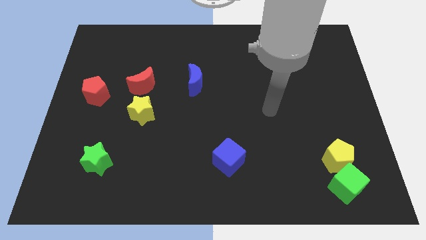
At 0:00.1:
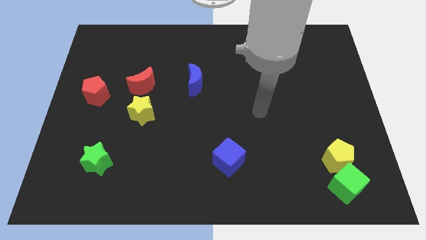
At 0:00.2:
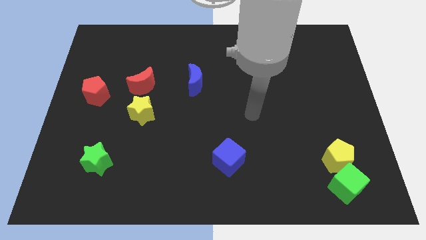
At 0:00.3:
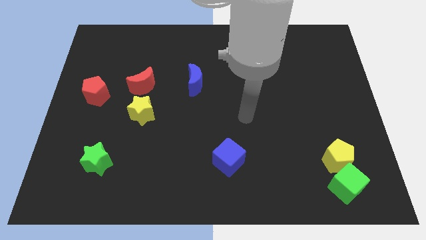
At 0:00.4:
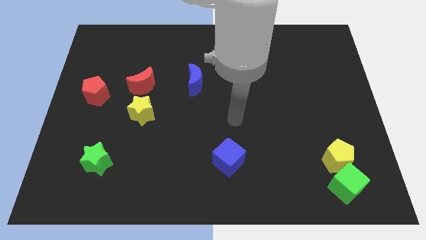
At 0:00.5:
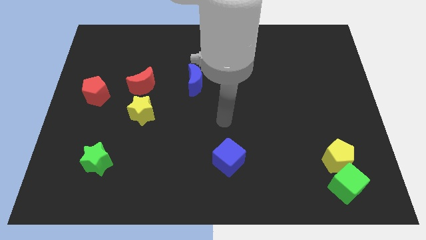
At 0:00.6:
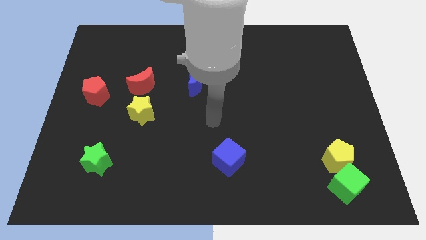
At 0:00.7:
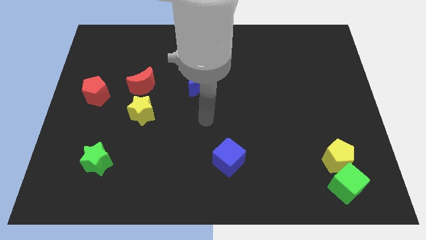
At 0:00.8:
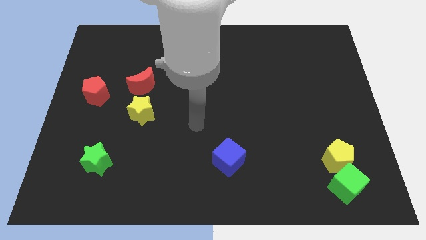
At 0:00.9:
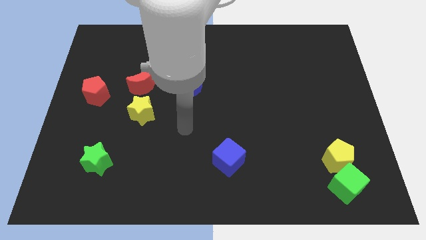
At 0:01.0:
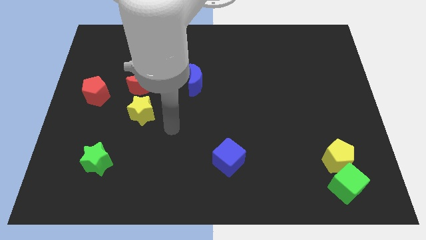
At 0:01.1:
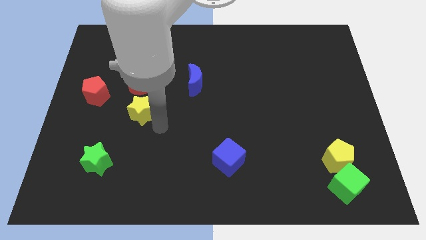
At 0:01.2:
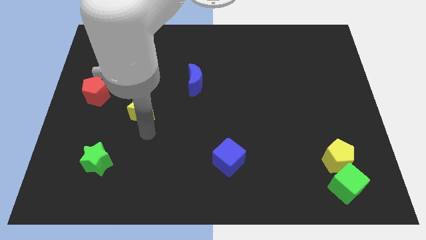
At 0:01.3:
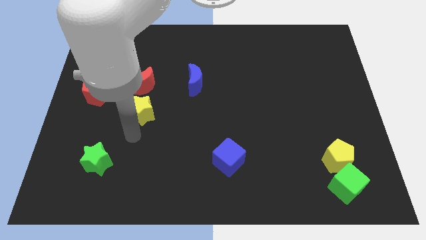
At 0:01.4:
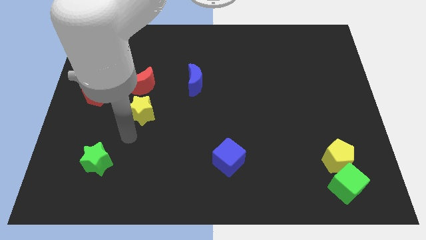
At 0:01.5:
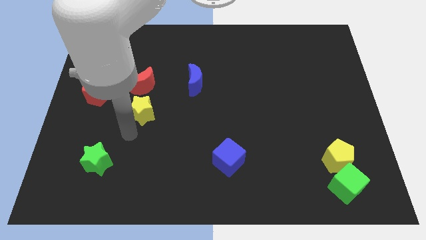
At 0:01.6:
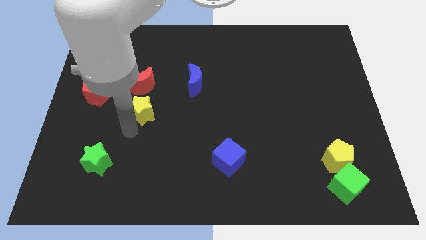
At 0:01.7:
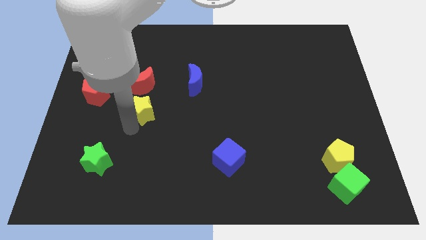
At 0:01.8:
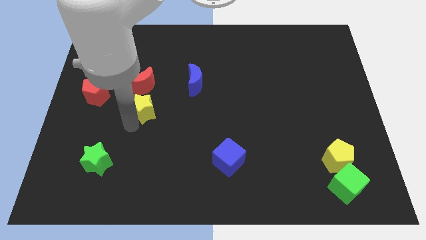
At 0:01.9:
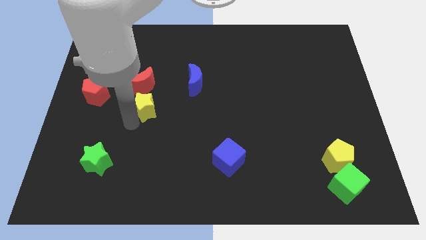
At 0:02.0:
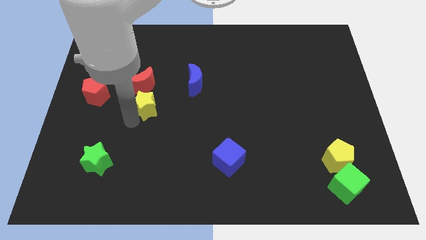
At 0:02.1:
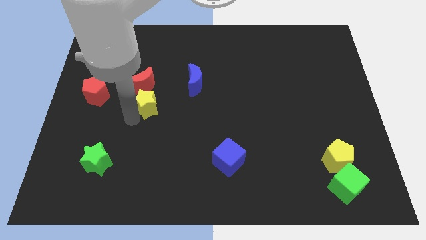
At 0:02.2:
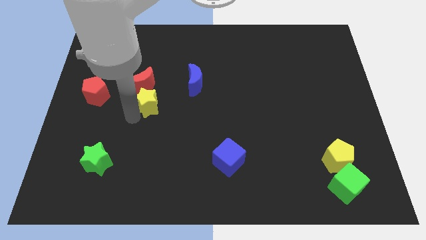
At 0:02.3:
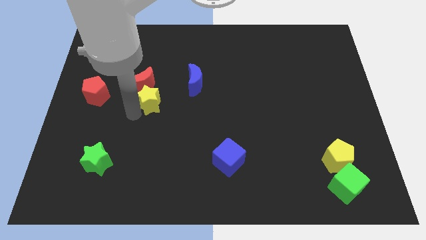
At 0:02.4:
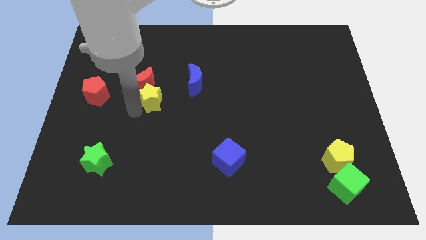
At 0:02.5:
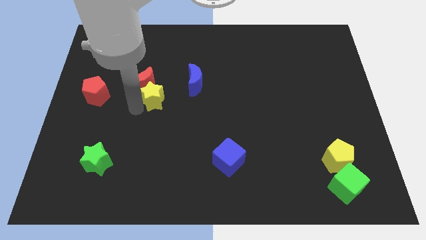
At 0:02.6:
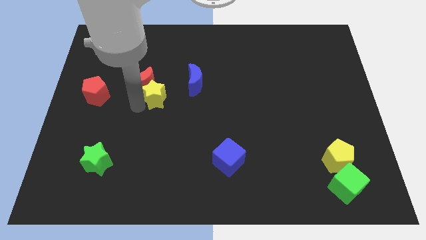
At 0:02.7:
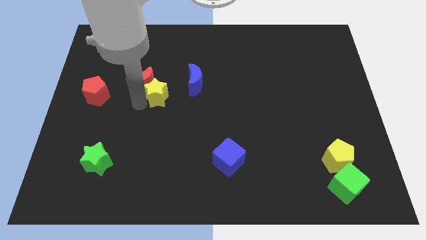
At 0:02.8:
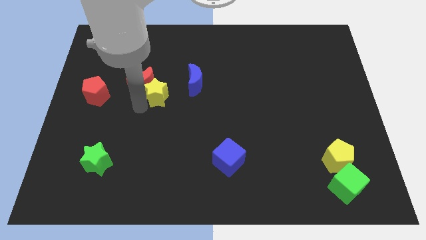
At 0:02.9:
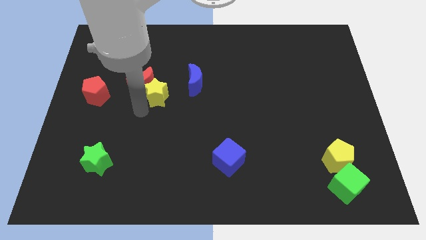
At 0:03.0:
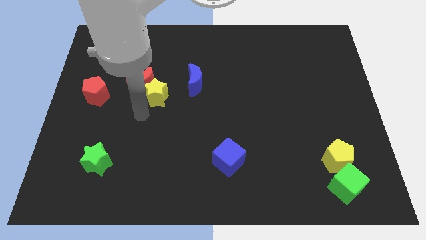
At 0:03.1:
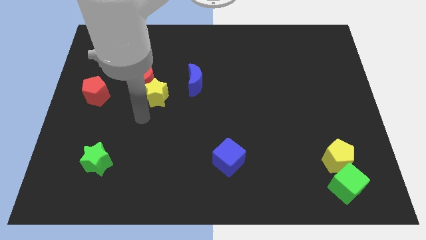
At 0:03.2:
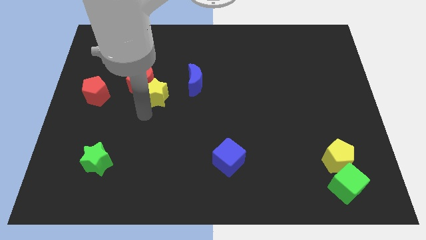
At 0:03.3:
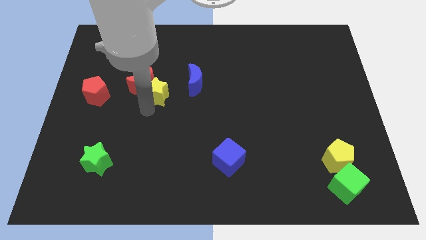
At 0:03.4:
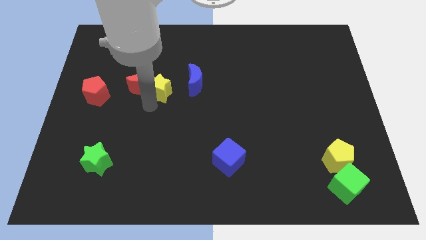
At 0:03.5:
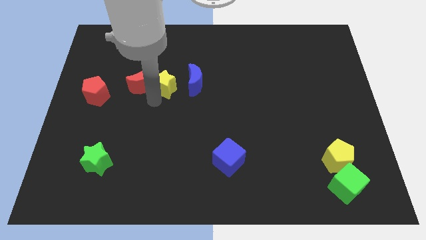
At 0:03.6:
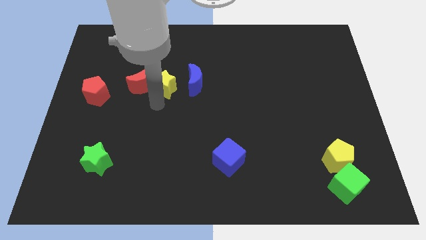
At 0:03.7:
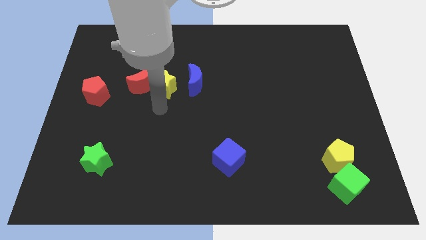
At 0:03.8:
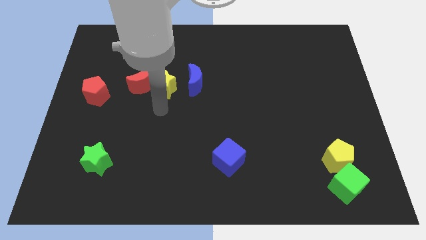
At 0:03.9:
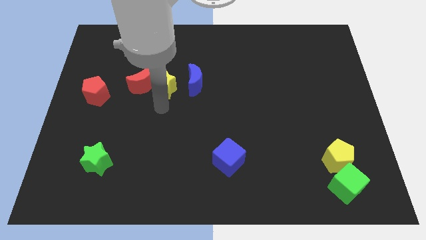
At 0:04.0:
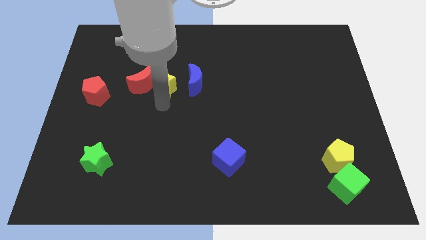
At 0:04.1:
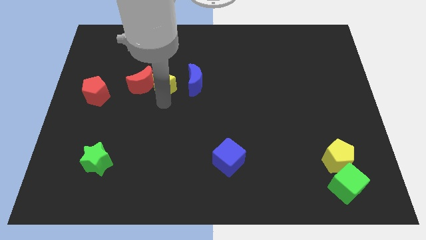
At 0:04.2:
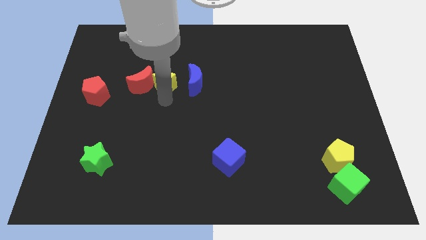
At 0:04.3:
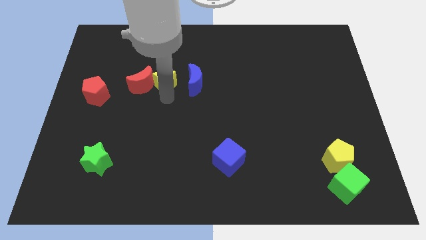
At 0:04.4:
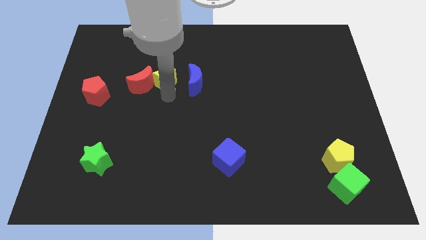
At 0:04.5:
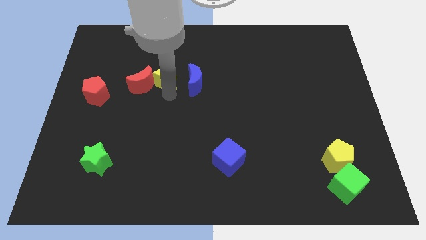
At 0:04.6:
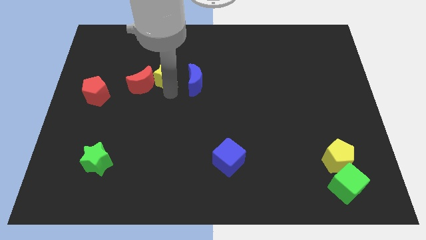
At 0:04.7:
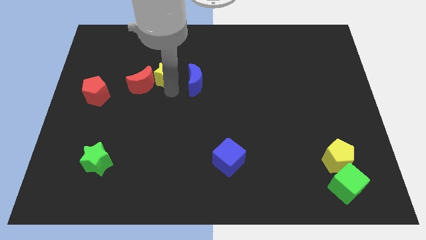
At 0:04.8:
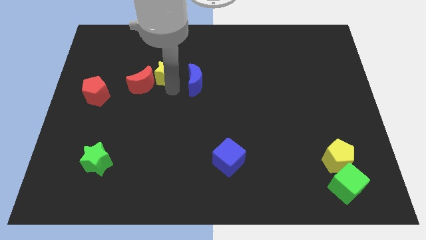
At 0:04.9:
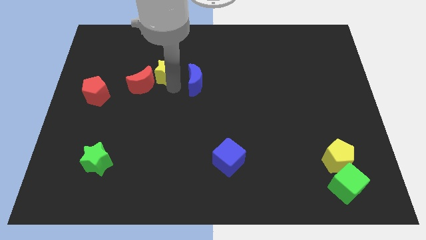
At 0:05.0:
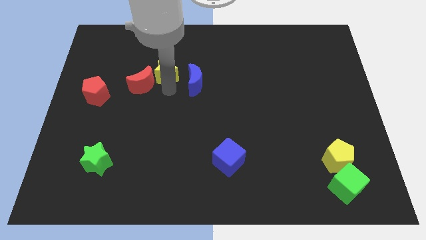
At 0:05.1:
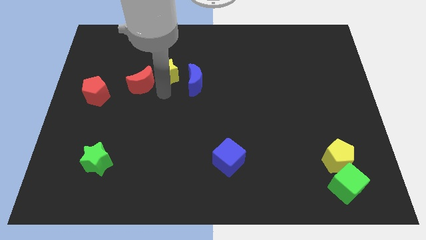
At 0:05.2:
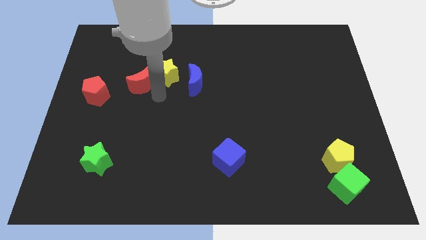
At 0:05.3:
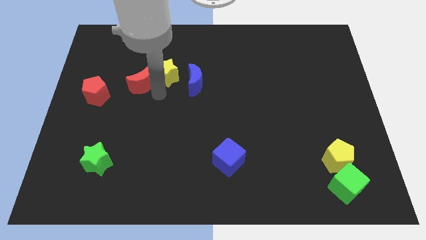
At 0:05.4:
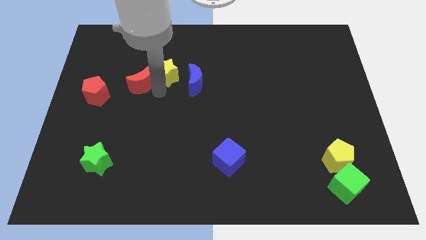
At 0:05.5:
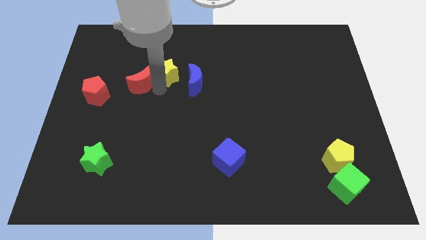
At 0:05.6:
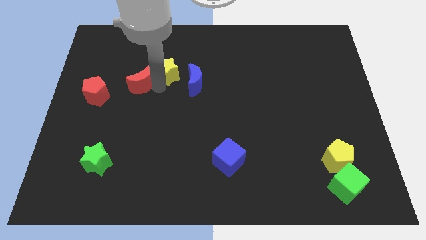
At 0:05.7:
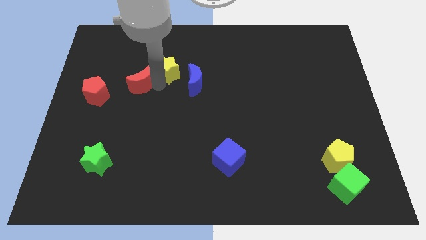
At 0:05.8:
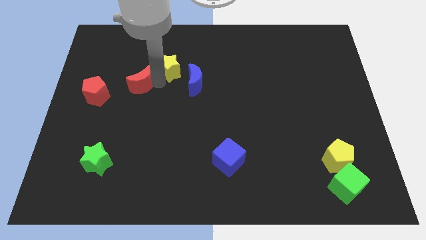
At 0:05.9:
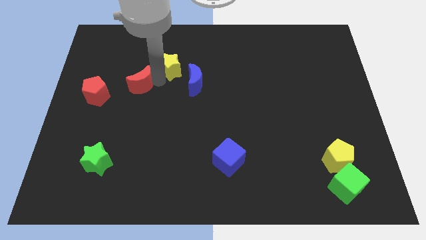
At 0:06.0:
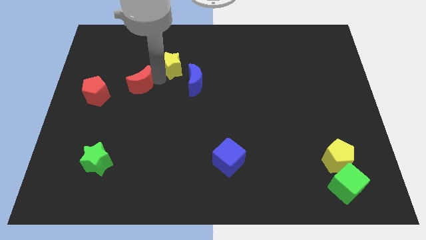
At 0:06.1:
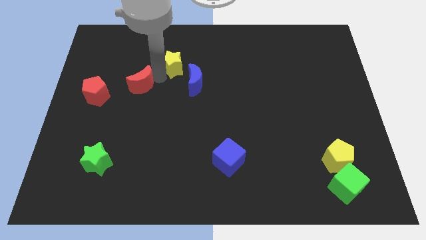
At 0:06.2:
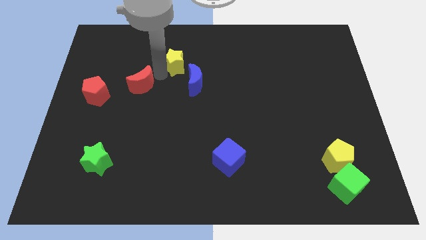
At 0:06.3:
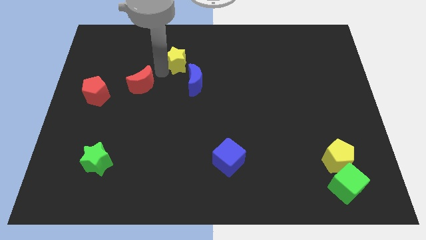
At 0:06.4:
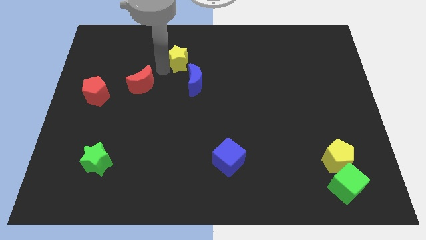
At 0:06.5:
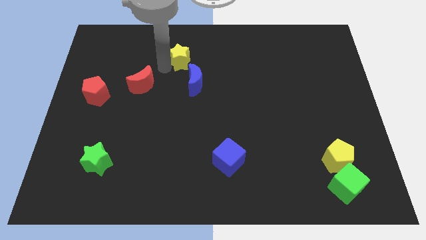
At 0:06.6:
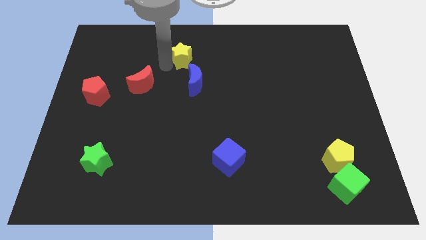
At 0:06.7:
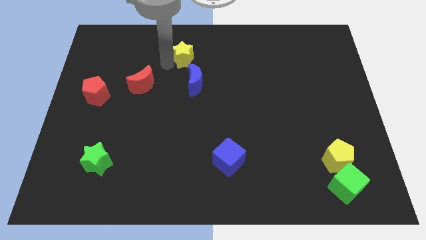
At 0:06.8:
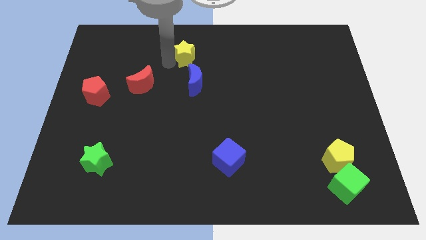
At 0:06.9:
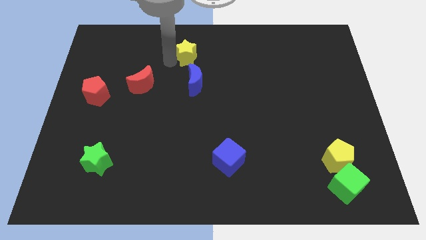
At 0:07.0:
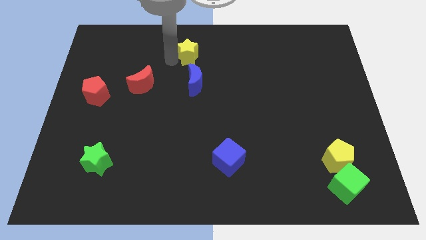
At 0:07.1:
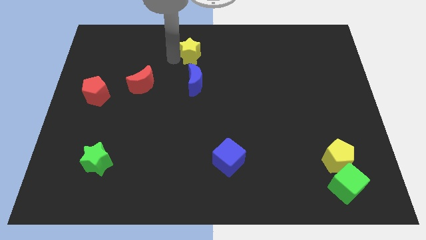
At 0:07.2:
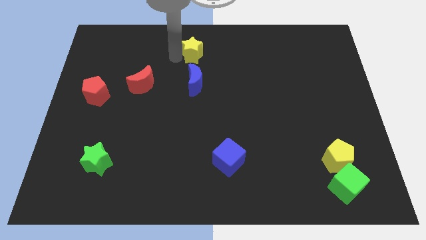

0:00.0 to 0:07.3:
push the yellow star to the top side
